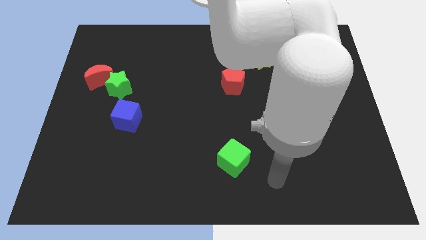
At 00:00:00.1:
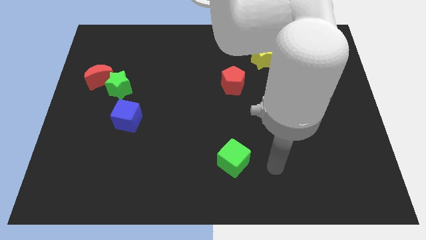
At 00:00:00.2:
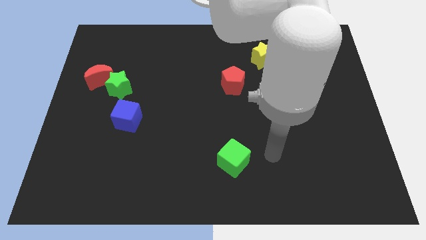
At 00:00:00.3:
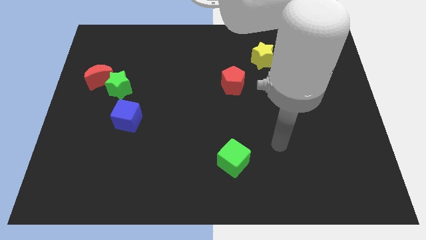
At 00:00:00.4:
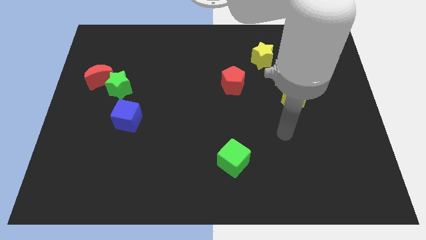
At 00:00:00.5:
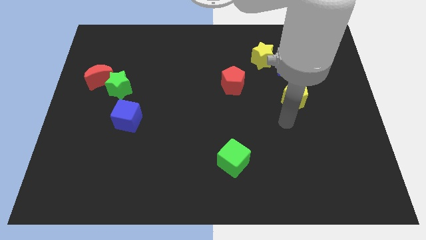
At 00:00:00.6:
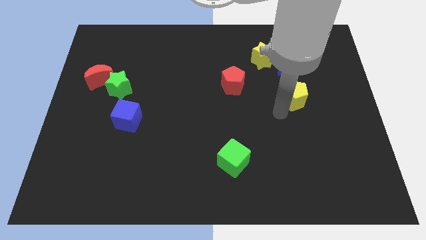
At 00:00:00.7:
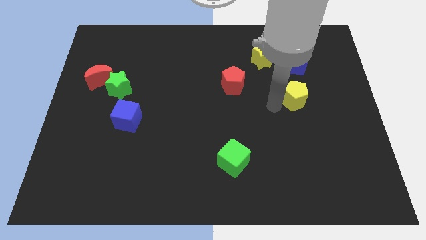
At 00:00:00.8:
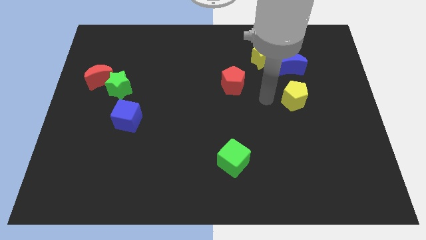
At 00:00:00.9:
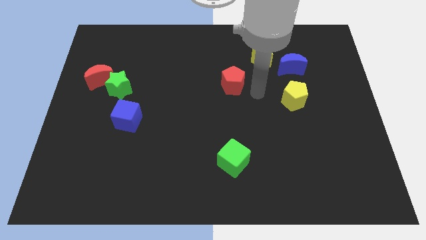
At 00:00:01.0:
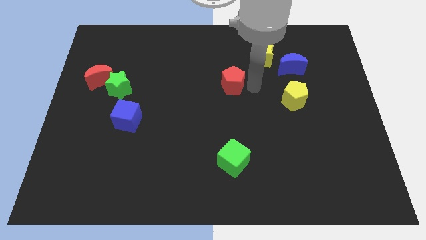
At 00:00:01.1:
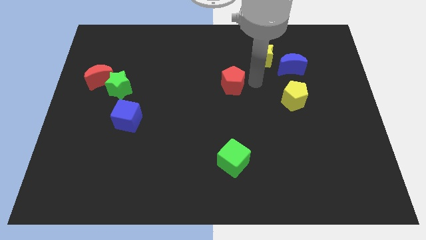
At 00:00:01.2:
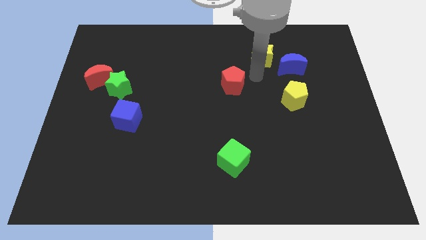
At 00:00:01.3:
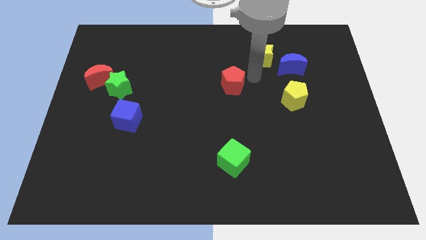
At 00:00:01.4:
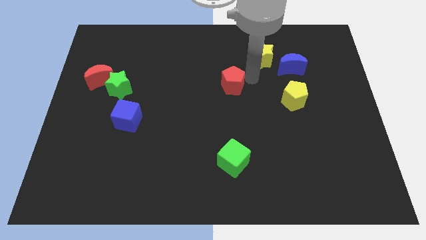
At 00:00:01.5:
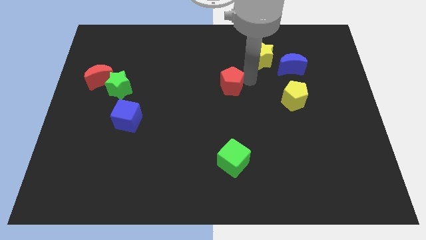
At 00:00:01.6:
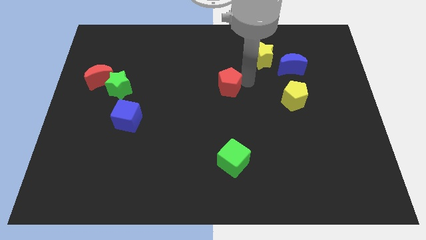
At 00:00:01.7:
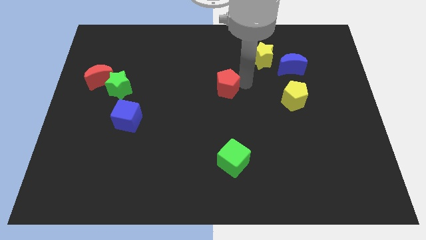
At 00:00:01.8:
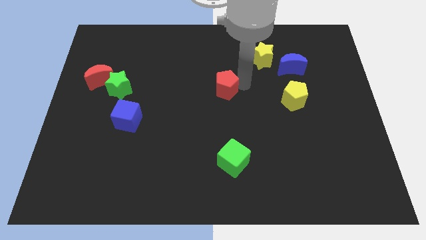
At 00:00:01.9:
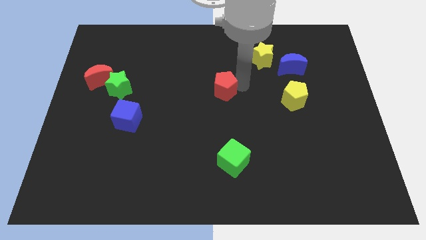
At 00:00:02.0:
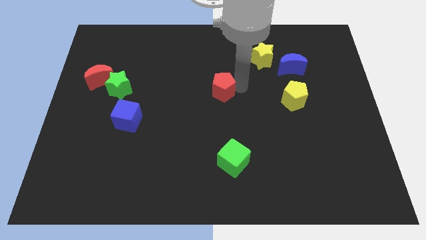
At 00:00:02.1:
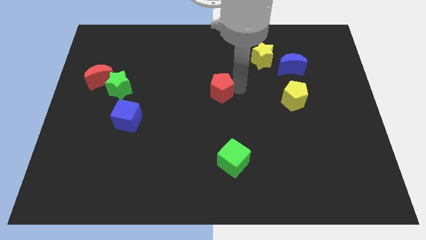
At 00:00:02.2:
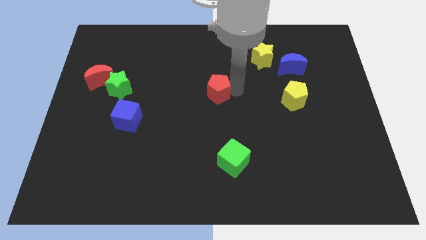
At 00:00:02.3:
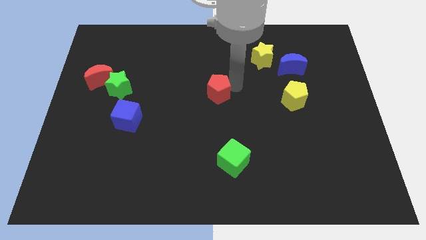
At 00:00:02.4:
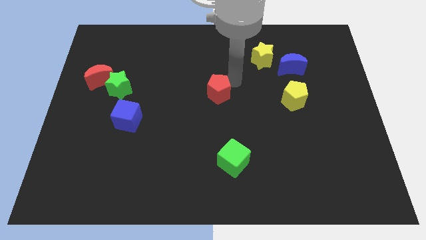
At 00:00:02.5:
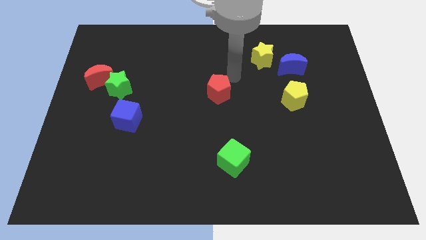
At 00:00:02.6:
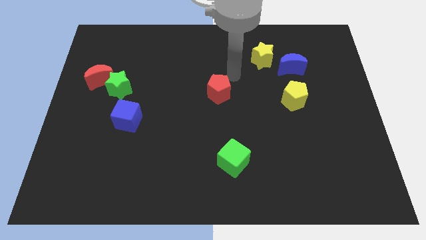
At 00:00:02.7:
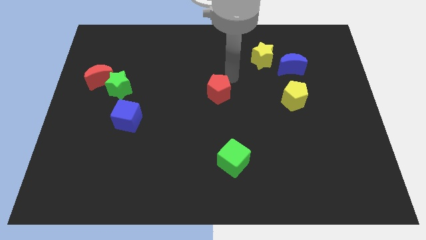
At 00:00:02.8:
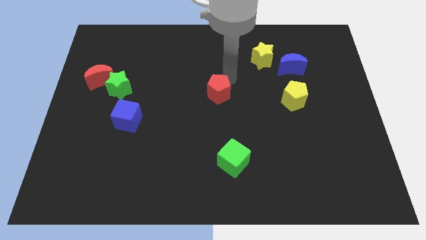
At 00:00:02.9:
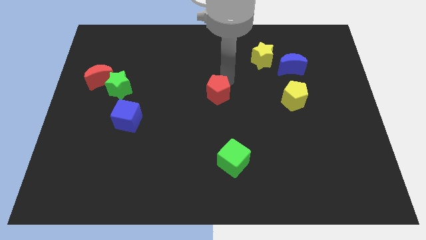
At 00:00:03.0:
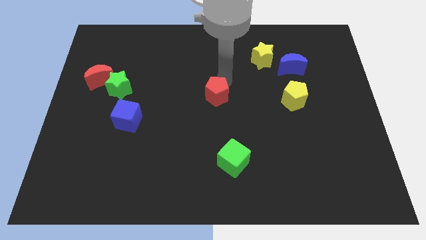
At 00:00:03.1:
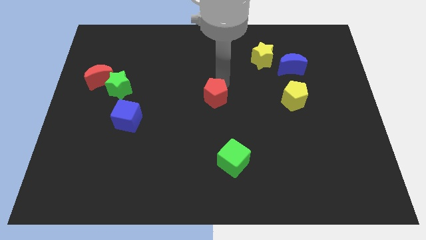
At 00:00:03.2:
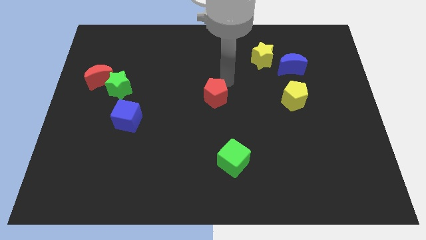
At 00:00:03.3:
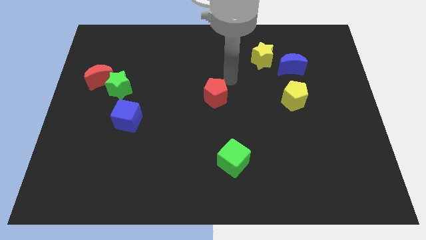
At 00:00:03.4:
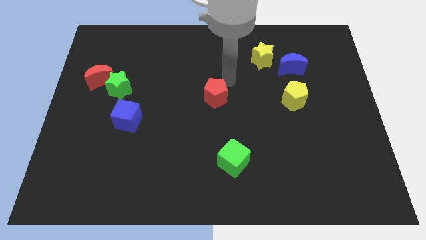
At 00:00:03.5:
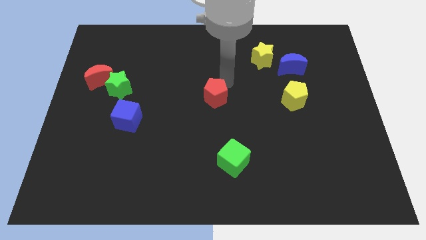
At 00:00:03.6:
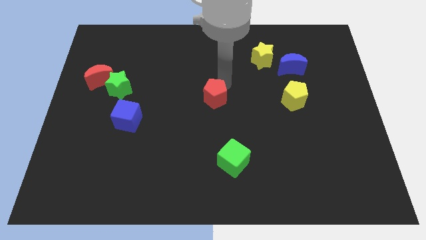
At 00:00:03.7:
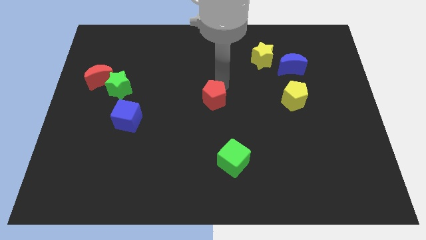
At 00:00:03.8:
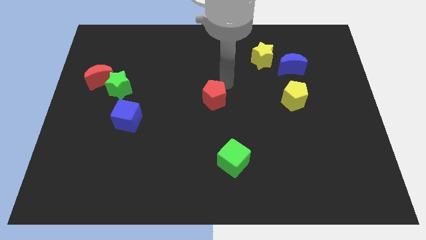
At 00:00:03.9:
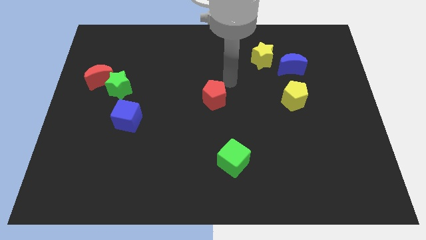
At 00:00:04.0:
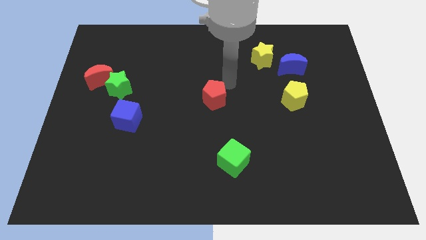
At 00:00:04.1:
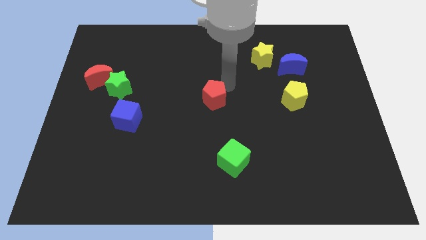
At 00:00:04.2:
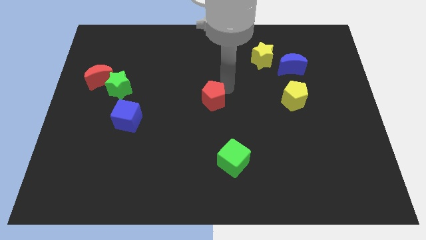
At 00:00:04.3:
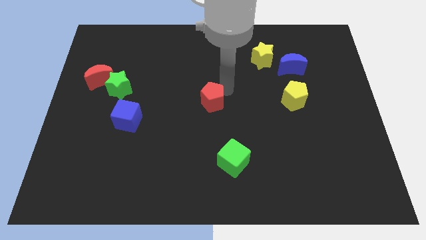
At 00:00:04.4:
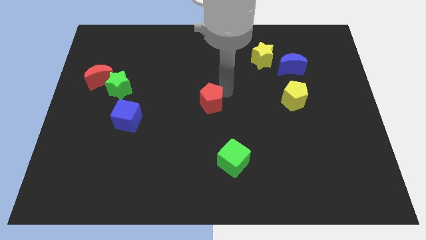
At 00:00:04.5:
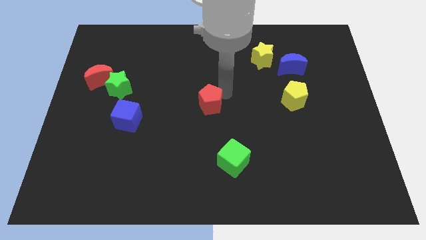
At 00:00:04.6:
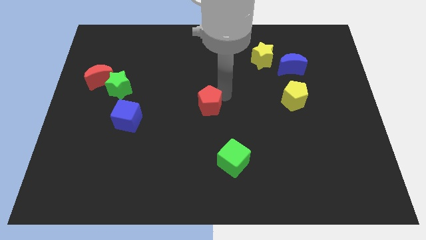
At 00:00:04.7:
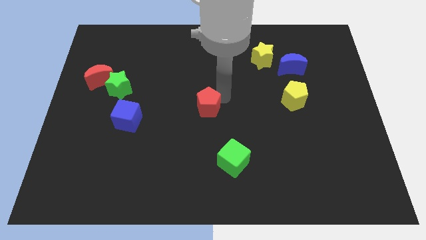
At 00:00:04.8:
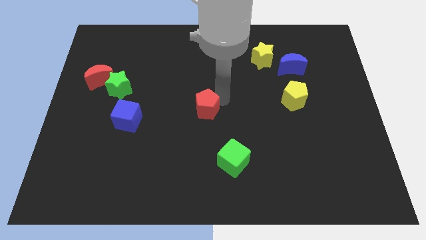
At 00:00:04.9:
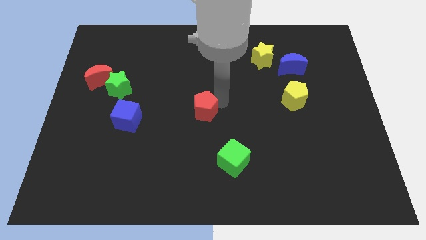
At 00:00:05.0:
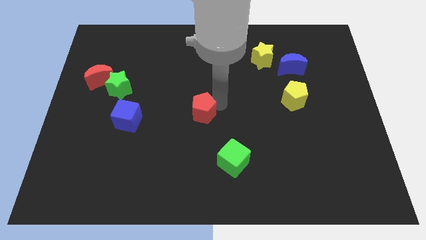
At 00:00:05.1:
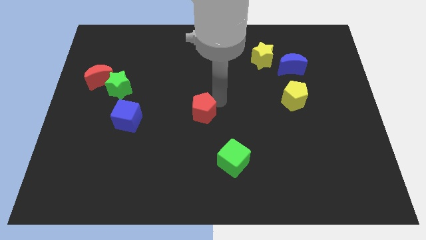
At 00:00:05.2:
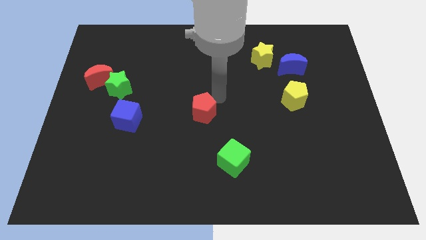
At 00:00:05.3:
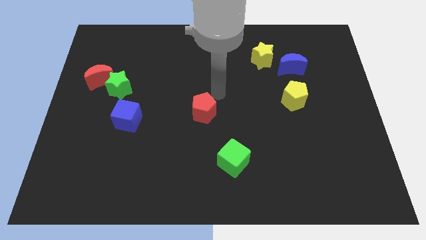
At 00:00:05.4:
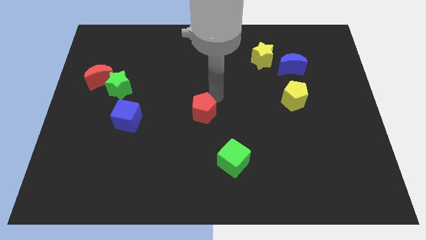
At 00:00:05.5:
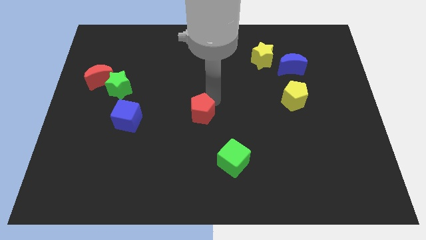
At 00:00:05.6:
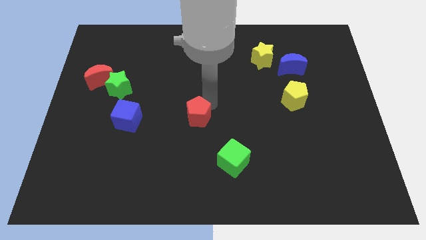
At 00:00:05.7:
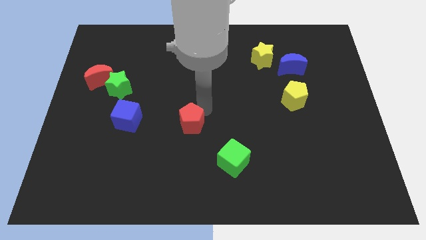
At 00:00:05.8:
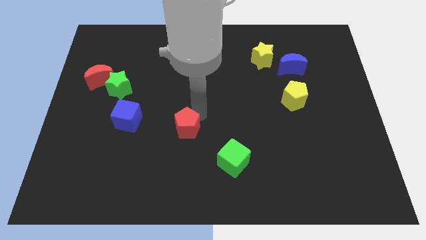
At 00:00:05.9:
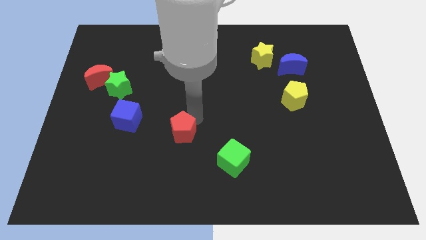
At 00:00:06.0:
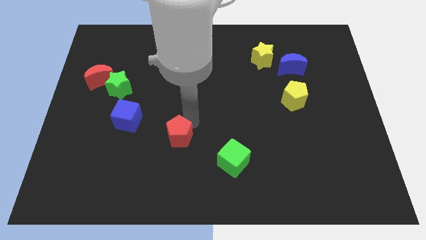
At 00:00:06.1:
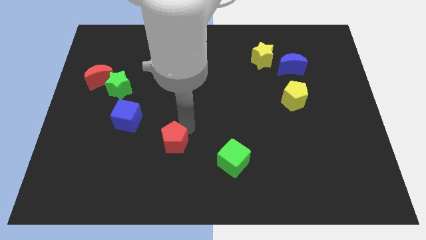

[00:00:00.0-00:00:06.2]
push the red pentagon diagonally downwards and to the left

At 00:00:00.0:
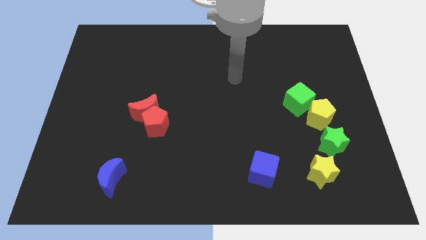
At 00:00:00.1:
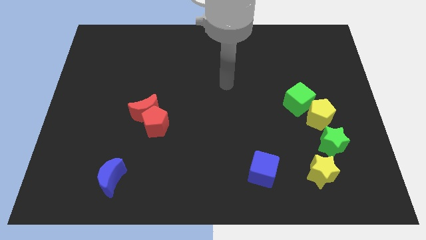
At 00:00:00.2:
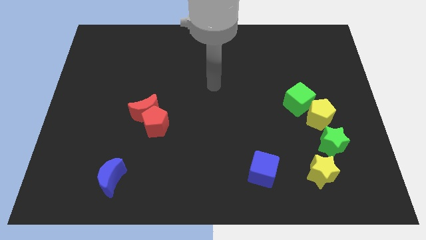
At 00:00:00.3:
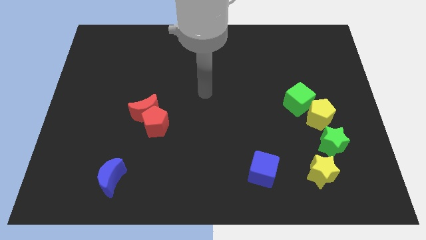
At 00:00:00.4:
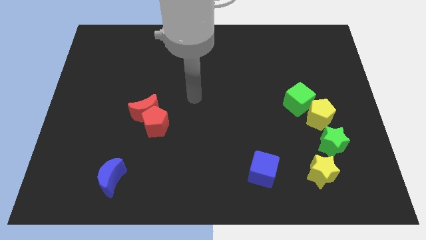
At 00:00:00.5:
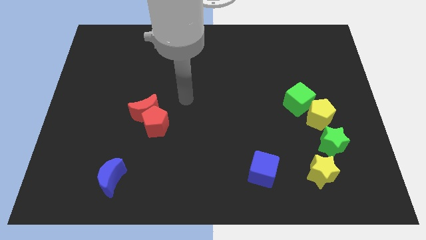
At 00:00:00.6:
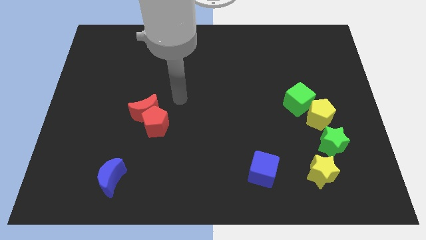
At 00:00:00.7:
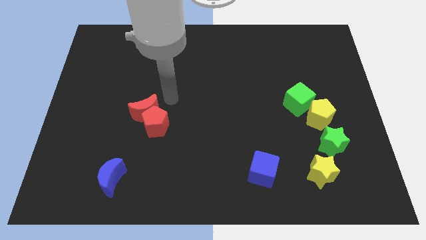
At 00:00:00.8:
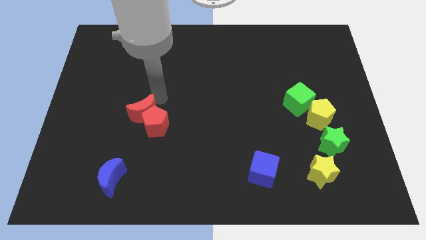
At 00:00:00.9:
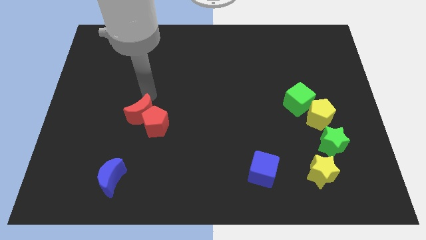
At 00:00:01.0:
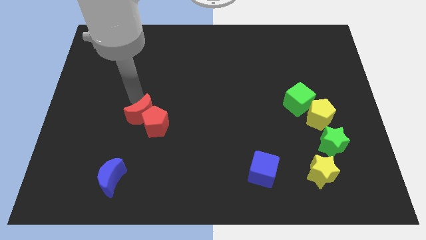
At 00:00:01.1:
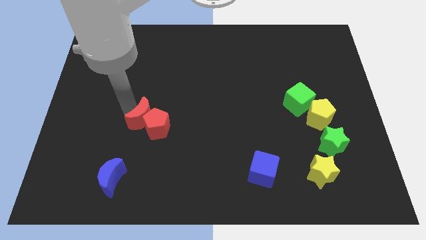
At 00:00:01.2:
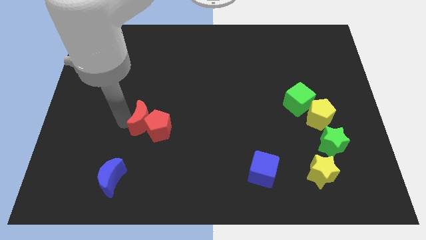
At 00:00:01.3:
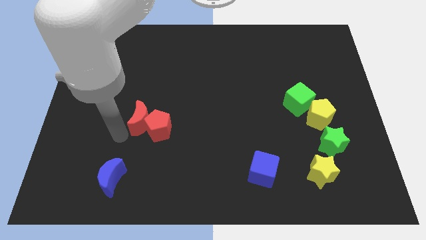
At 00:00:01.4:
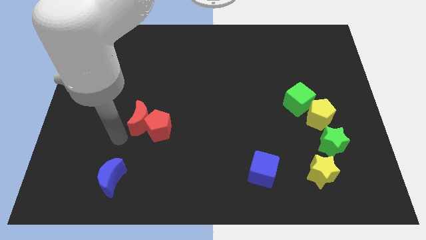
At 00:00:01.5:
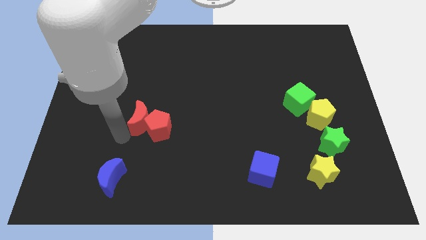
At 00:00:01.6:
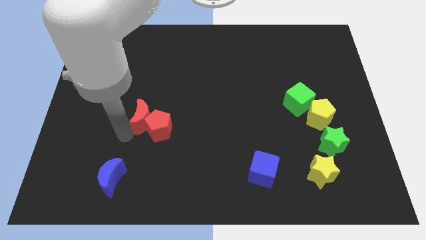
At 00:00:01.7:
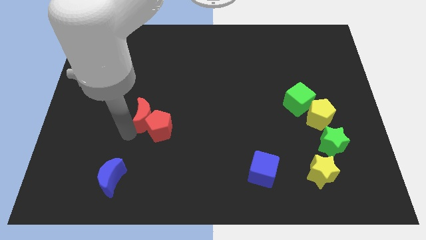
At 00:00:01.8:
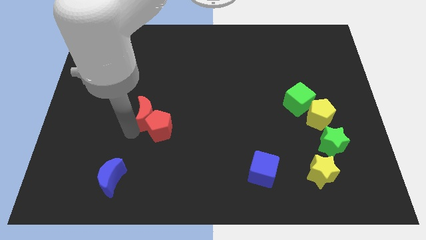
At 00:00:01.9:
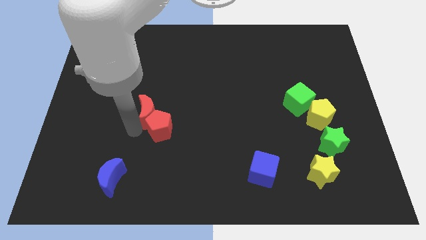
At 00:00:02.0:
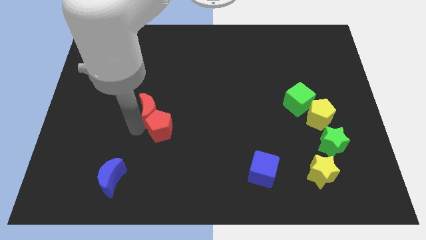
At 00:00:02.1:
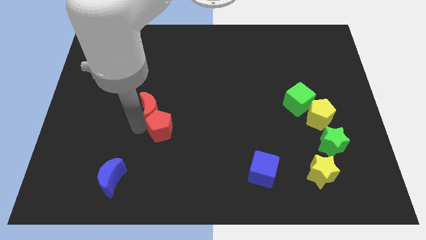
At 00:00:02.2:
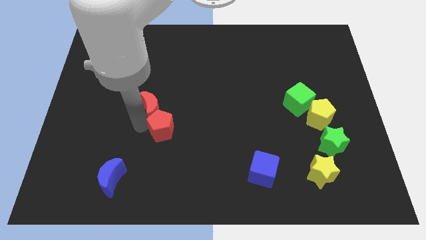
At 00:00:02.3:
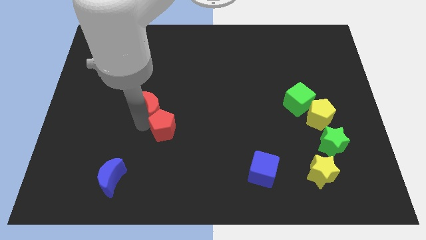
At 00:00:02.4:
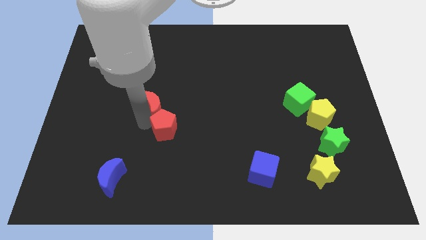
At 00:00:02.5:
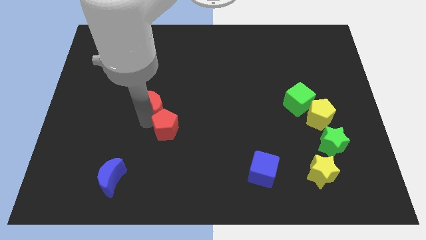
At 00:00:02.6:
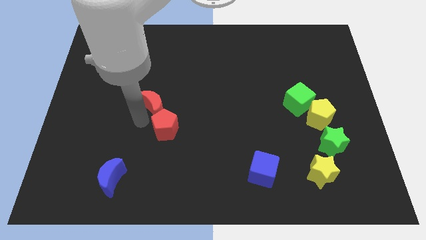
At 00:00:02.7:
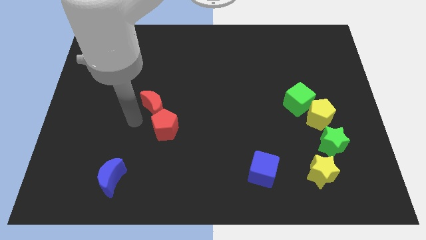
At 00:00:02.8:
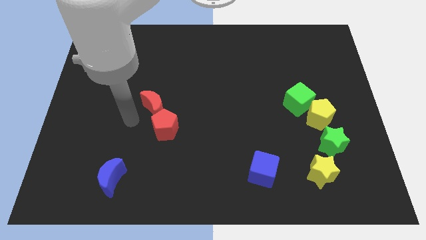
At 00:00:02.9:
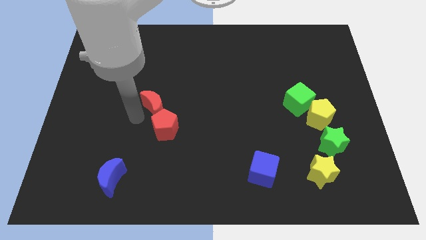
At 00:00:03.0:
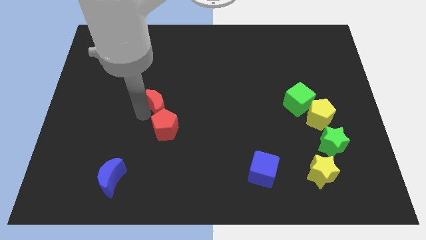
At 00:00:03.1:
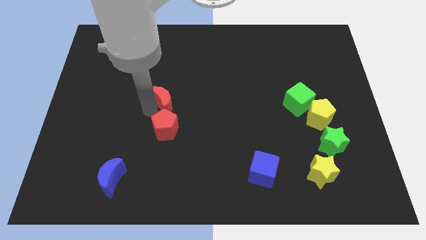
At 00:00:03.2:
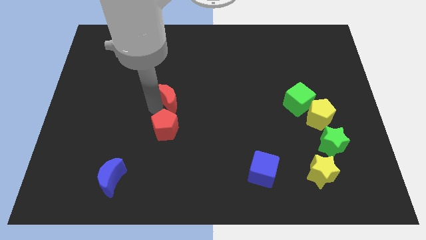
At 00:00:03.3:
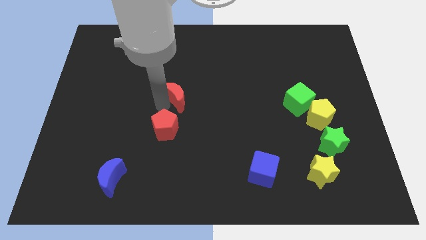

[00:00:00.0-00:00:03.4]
push the red moon slightly up and then to the right
